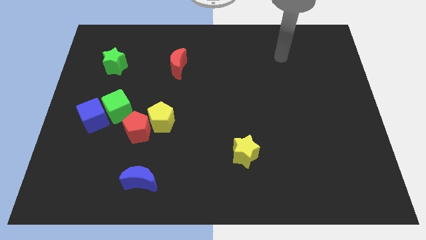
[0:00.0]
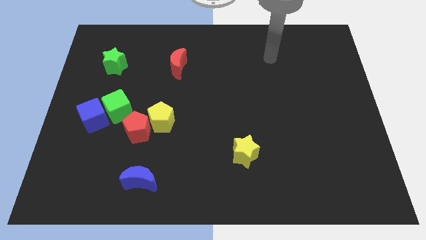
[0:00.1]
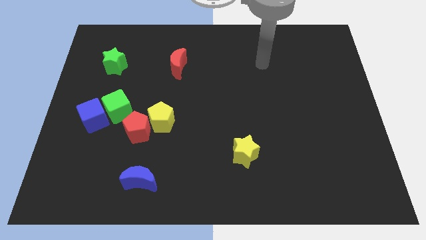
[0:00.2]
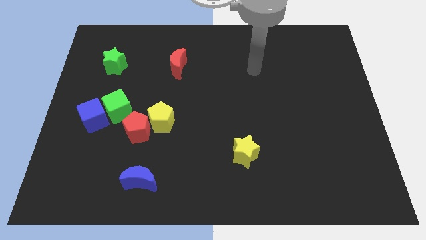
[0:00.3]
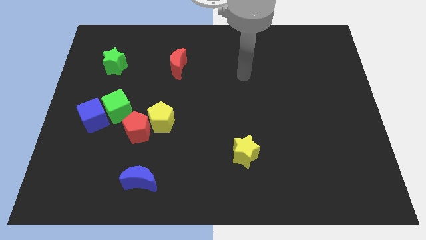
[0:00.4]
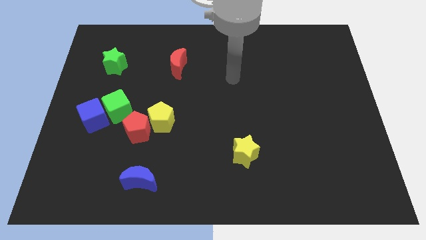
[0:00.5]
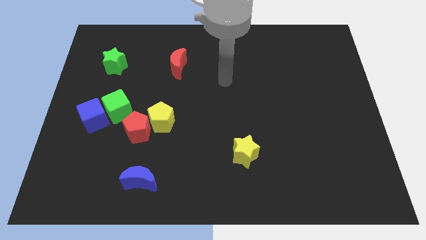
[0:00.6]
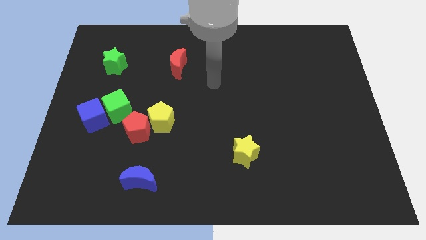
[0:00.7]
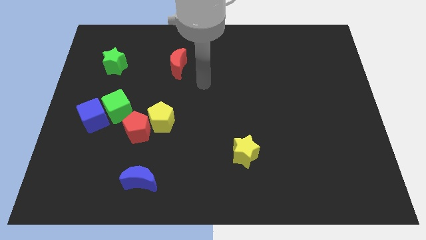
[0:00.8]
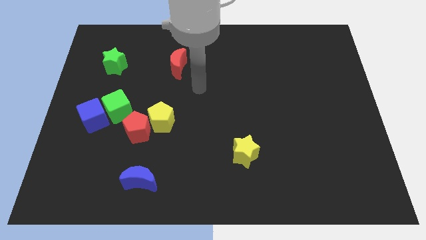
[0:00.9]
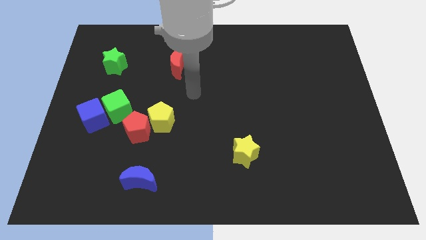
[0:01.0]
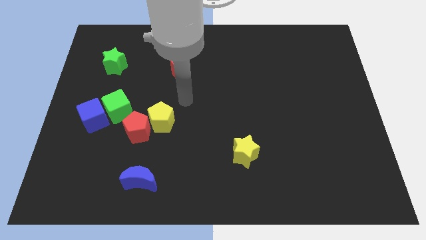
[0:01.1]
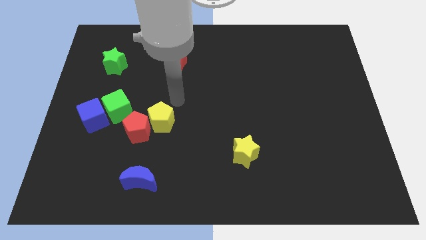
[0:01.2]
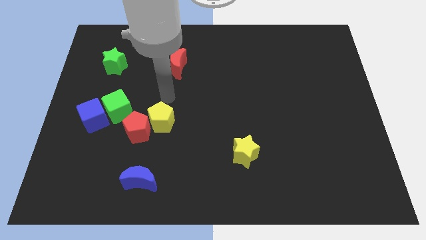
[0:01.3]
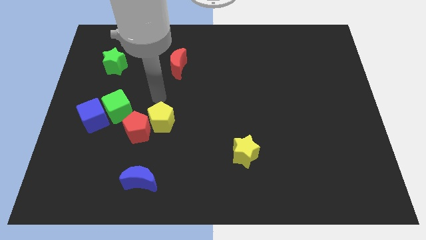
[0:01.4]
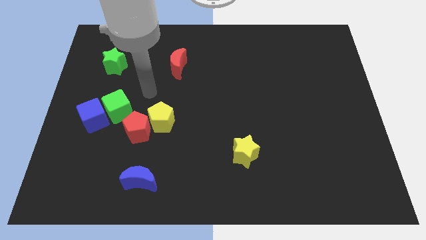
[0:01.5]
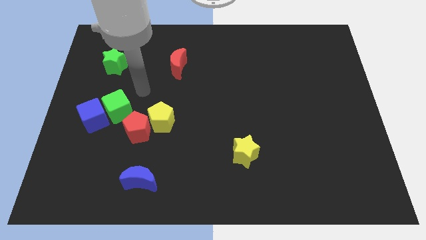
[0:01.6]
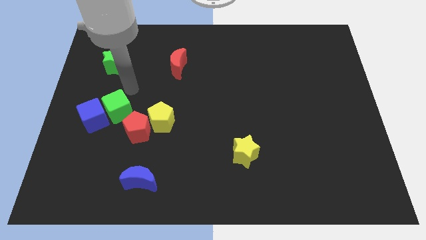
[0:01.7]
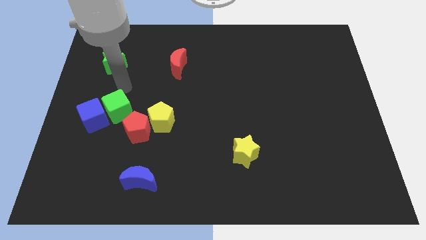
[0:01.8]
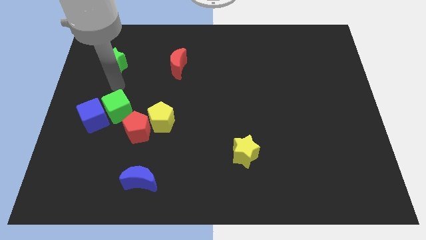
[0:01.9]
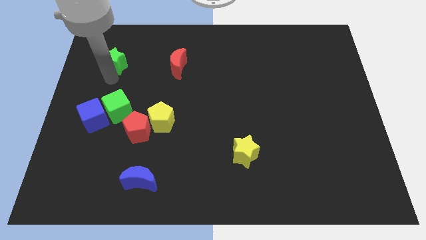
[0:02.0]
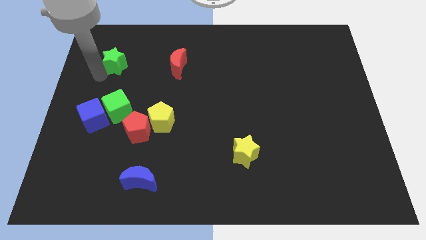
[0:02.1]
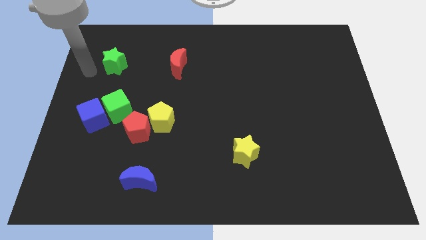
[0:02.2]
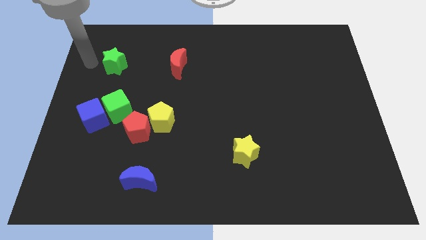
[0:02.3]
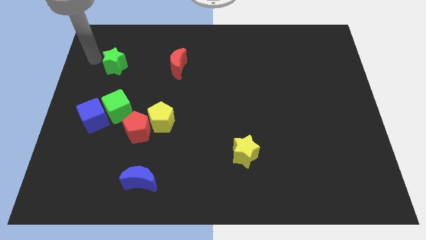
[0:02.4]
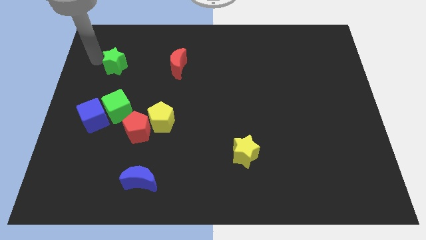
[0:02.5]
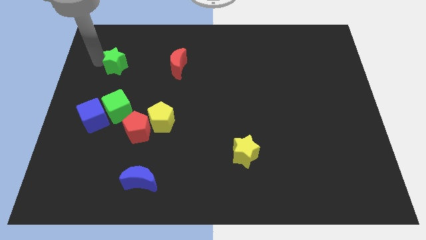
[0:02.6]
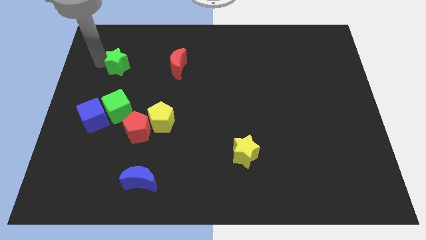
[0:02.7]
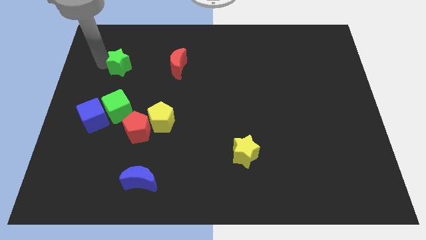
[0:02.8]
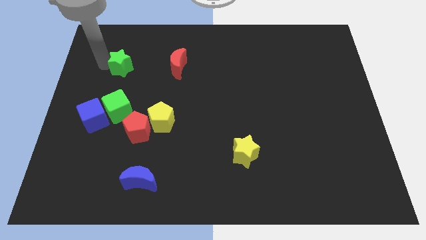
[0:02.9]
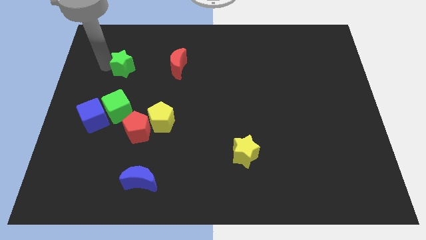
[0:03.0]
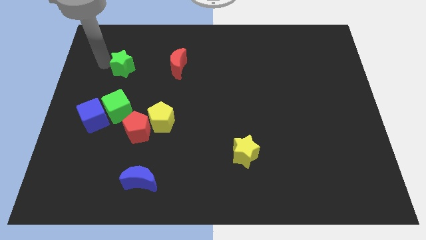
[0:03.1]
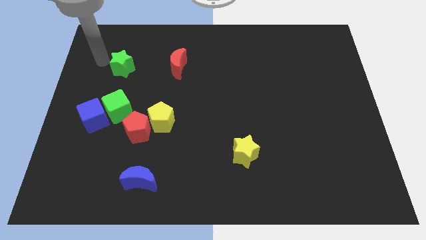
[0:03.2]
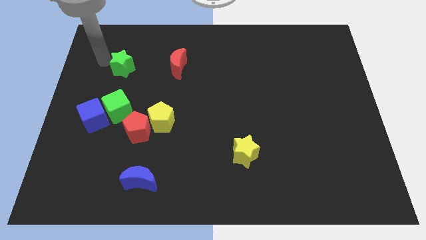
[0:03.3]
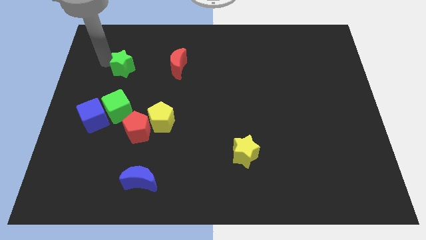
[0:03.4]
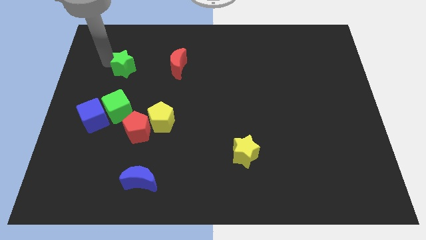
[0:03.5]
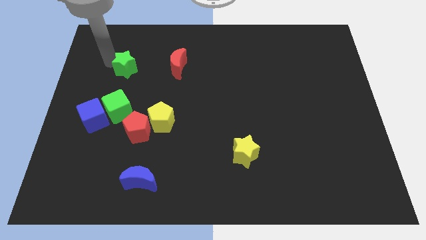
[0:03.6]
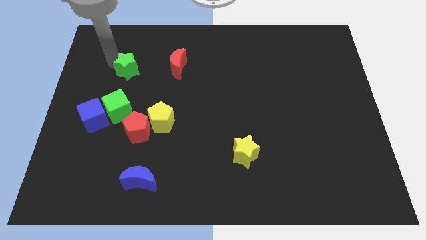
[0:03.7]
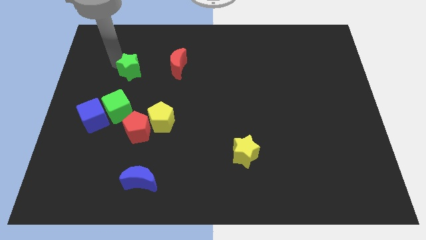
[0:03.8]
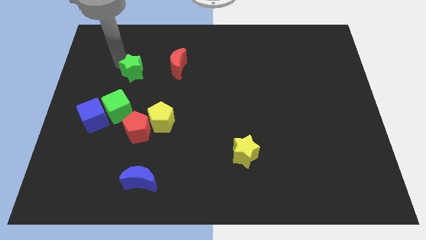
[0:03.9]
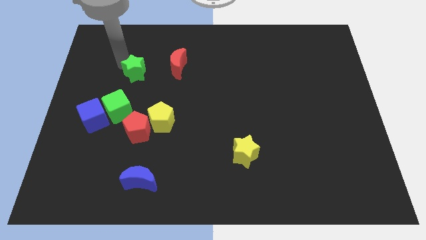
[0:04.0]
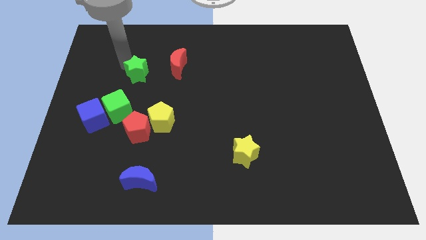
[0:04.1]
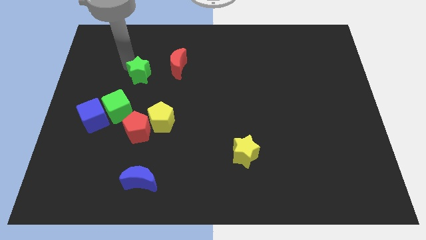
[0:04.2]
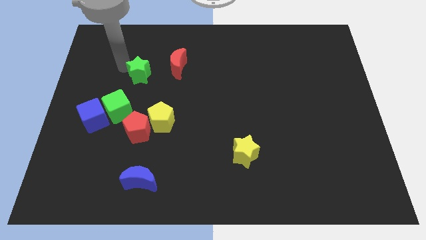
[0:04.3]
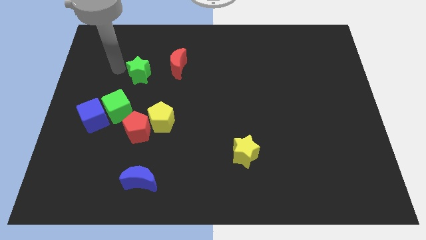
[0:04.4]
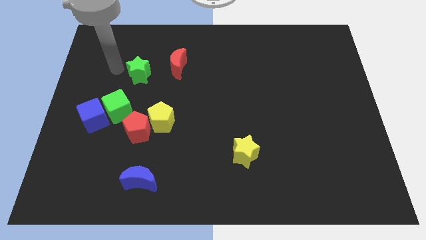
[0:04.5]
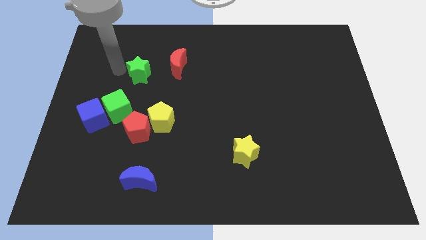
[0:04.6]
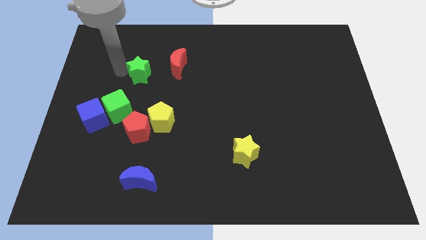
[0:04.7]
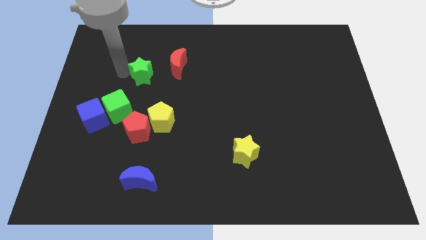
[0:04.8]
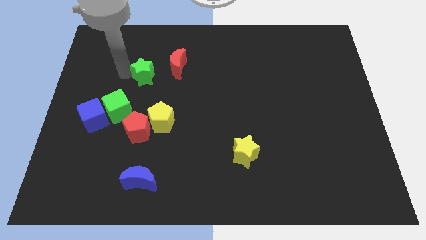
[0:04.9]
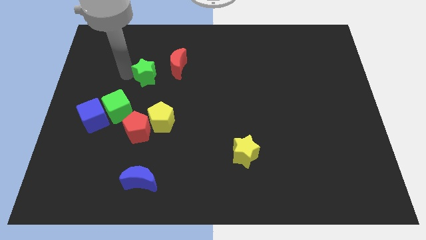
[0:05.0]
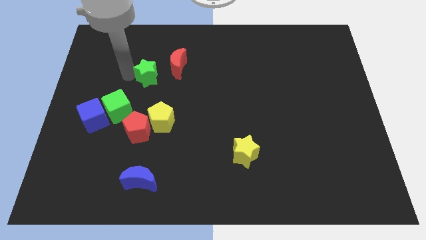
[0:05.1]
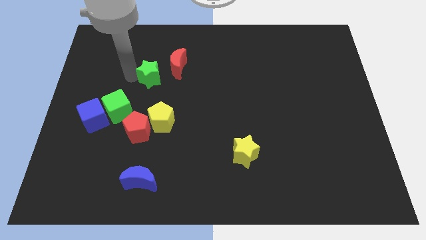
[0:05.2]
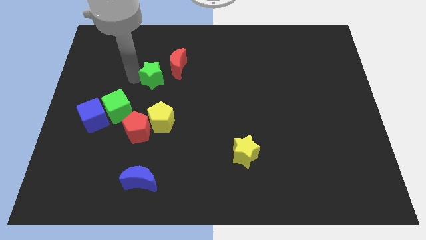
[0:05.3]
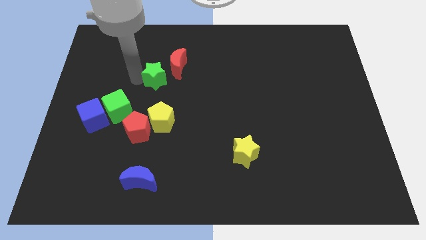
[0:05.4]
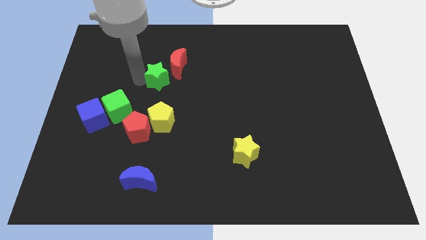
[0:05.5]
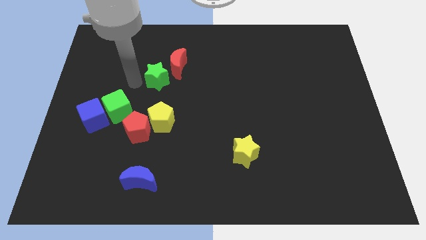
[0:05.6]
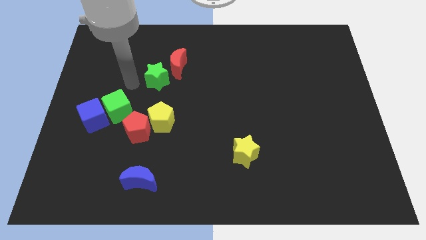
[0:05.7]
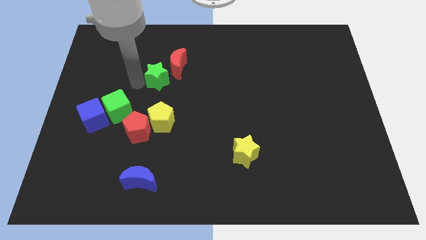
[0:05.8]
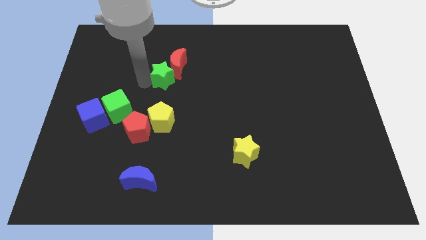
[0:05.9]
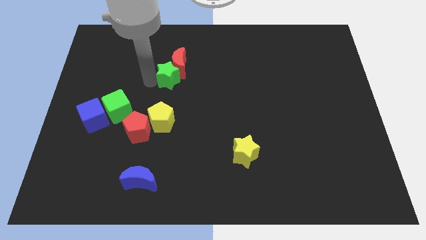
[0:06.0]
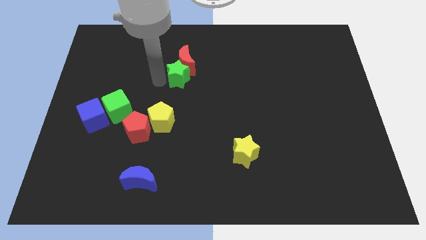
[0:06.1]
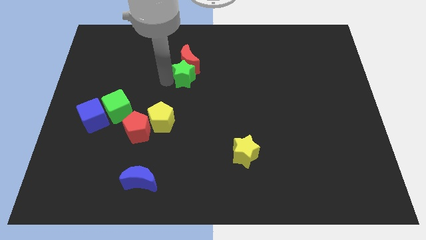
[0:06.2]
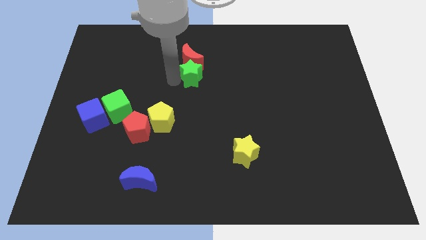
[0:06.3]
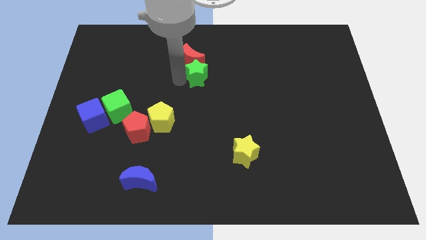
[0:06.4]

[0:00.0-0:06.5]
push the green star right

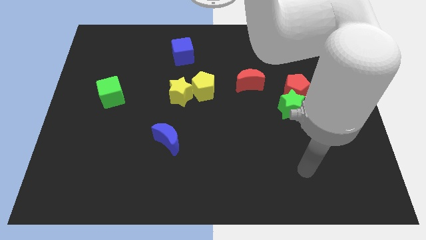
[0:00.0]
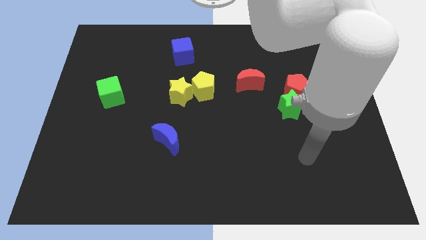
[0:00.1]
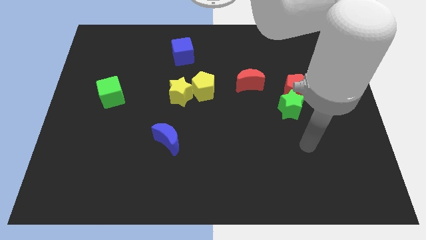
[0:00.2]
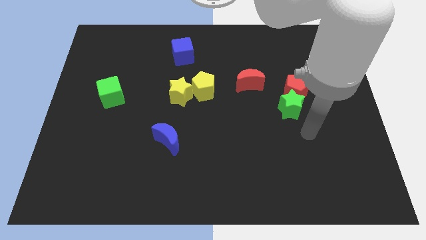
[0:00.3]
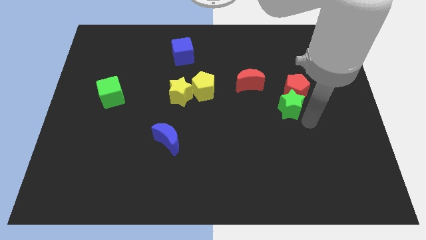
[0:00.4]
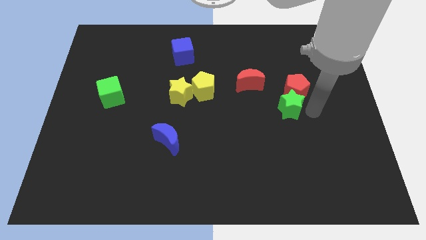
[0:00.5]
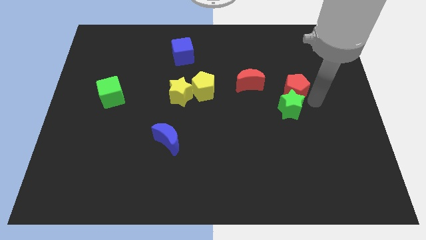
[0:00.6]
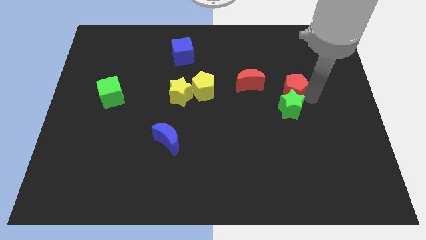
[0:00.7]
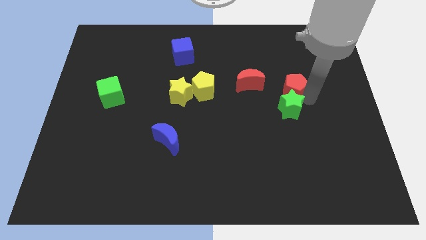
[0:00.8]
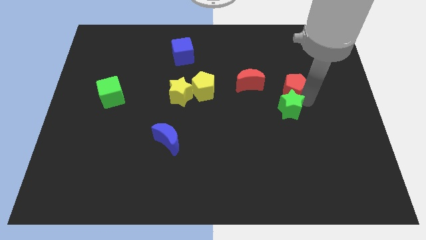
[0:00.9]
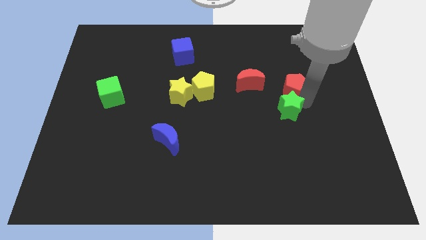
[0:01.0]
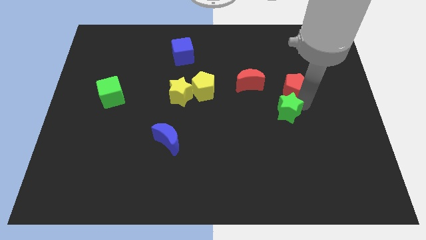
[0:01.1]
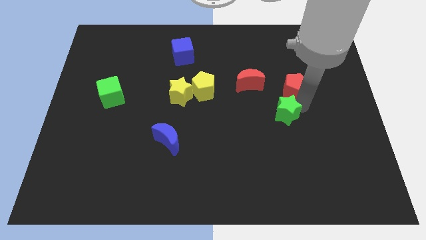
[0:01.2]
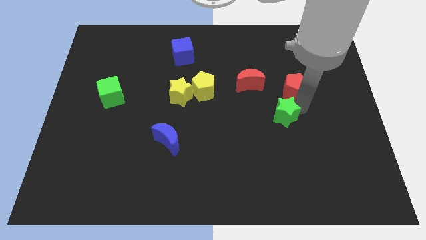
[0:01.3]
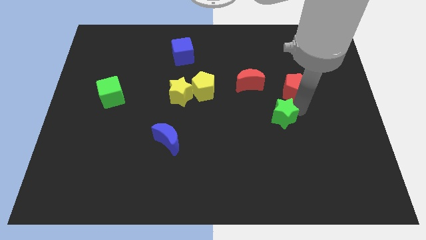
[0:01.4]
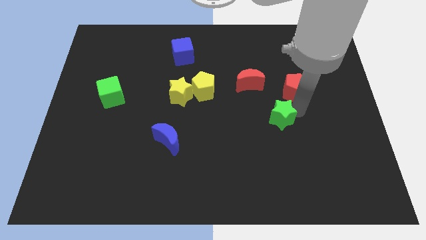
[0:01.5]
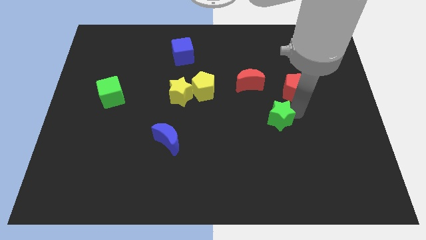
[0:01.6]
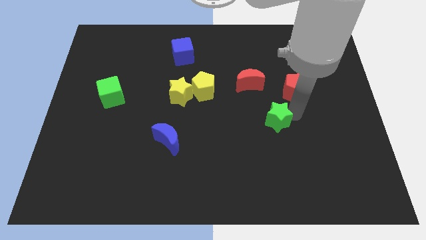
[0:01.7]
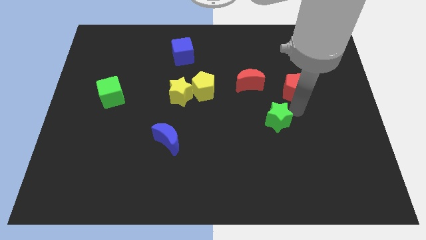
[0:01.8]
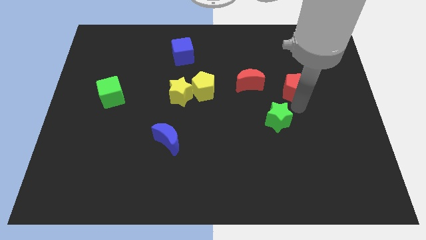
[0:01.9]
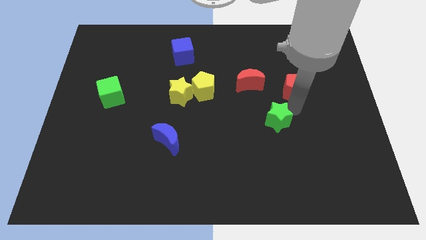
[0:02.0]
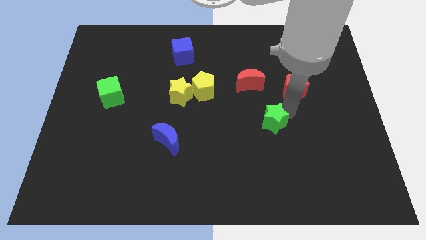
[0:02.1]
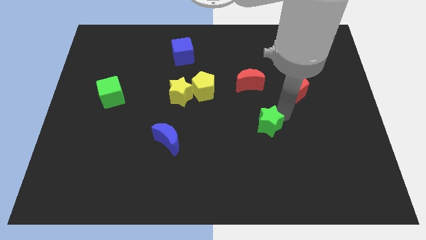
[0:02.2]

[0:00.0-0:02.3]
slightly move the green star down and then to the left
